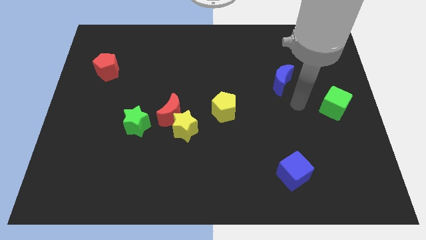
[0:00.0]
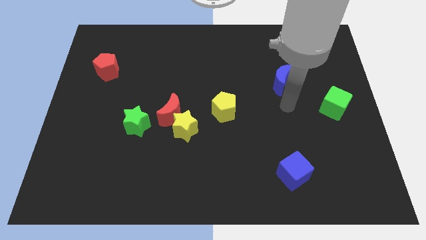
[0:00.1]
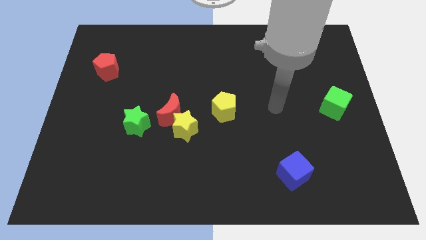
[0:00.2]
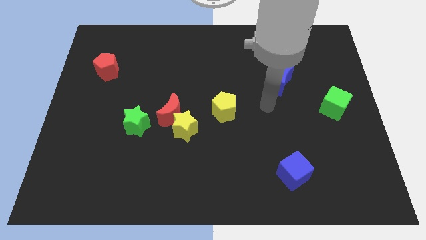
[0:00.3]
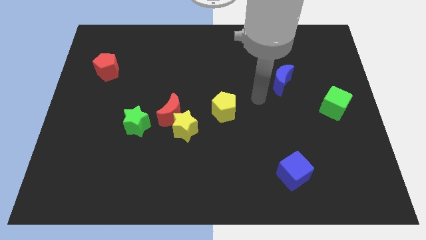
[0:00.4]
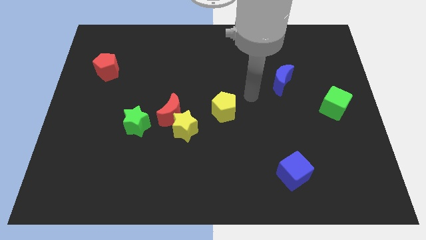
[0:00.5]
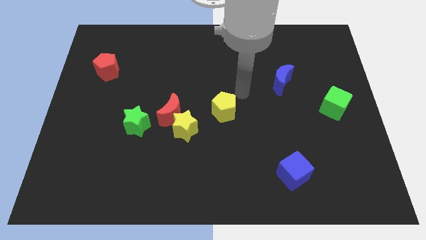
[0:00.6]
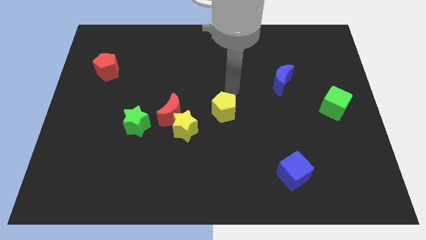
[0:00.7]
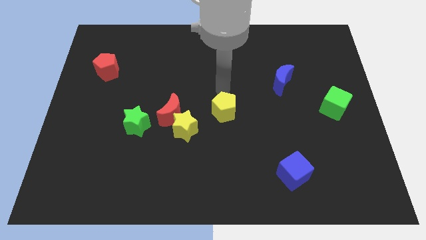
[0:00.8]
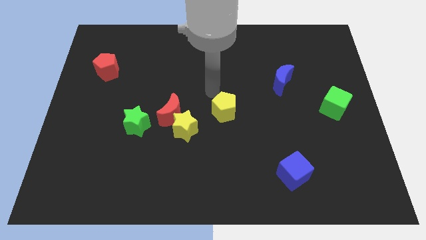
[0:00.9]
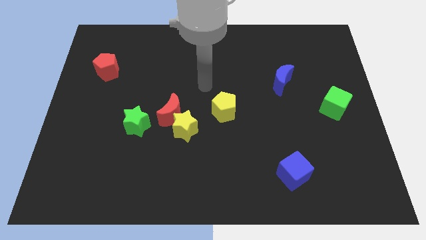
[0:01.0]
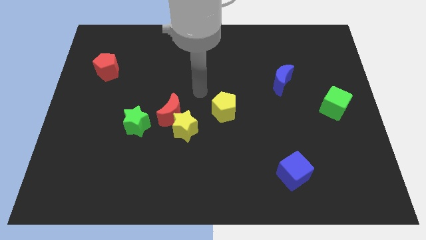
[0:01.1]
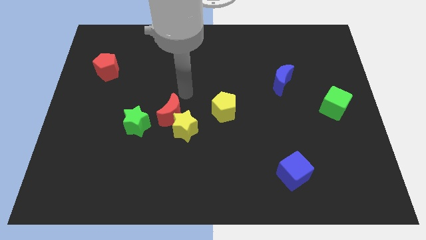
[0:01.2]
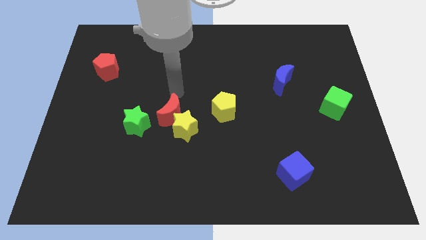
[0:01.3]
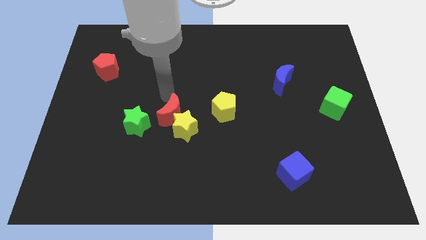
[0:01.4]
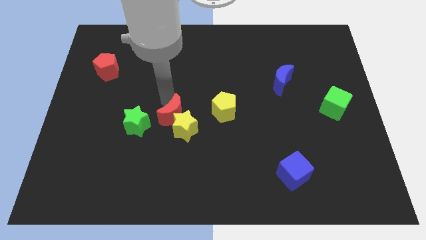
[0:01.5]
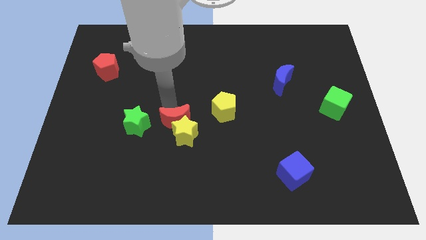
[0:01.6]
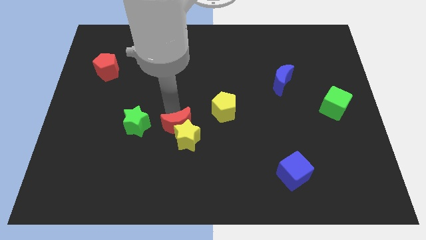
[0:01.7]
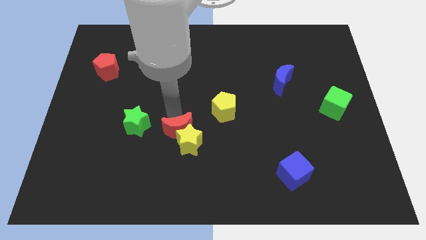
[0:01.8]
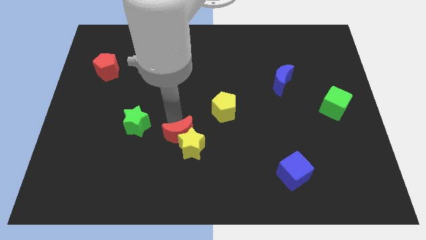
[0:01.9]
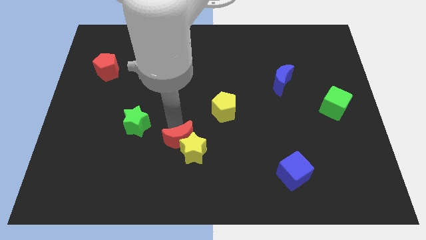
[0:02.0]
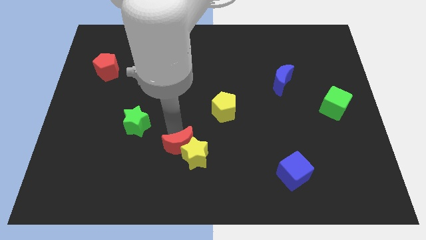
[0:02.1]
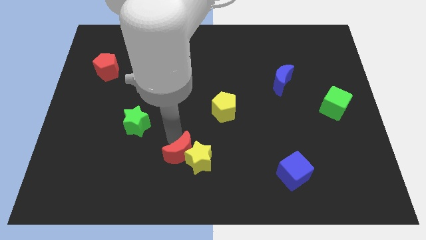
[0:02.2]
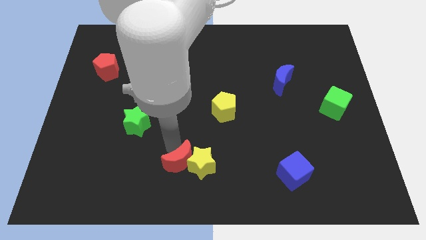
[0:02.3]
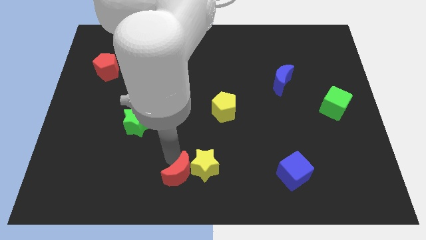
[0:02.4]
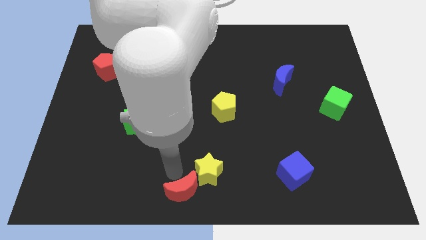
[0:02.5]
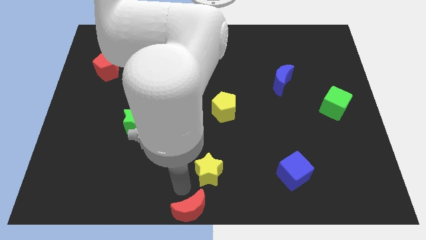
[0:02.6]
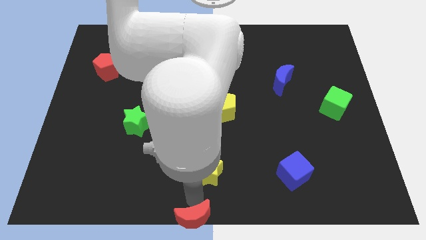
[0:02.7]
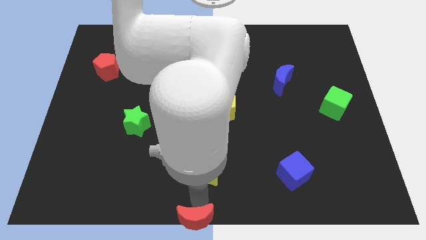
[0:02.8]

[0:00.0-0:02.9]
separate the yellow star from the red moon

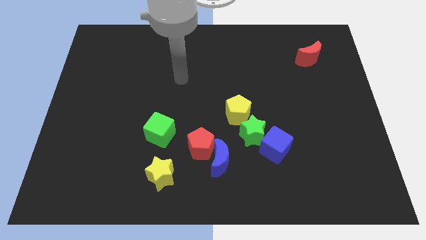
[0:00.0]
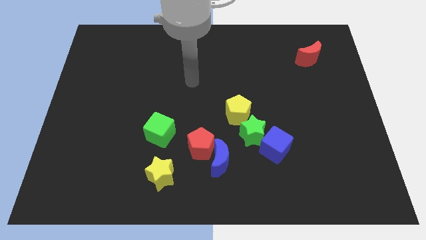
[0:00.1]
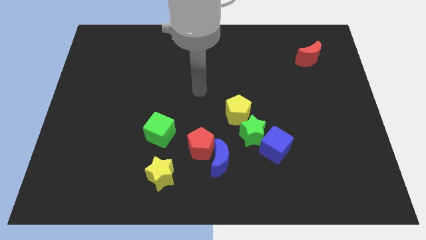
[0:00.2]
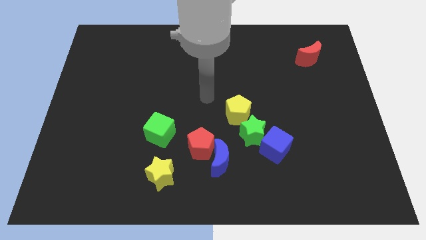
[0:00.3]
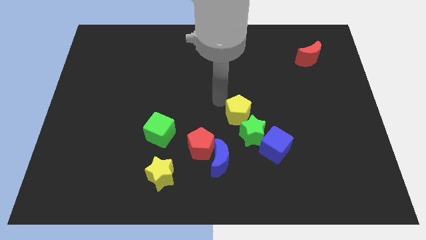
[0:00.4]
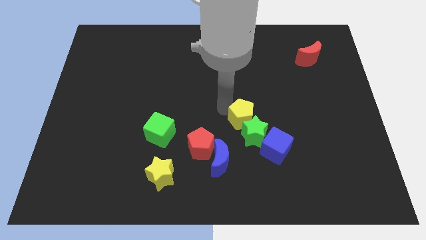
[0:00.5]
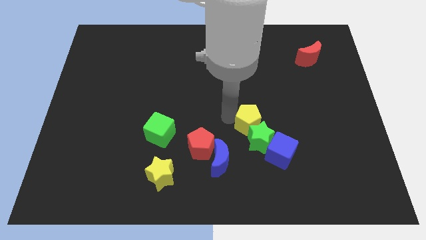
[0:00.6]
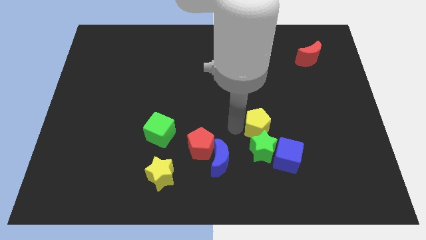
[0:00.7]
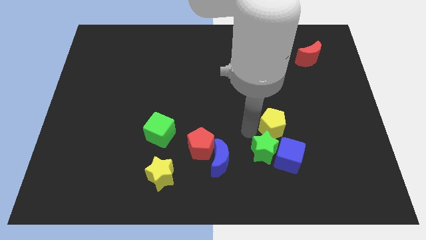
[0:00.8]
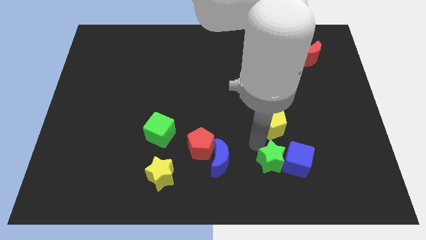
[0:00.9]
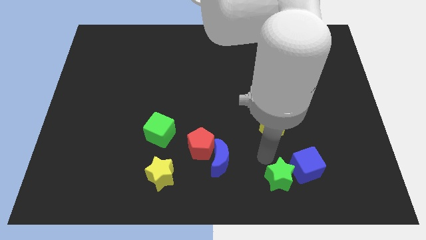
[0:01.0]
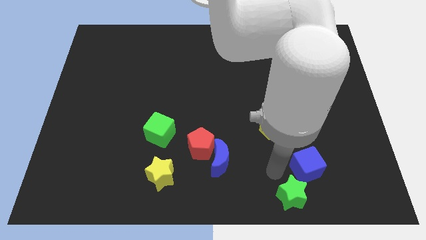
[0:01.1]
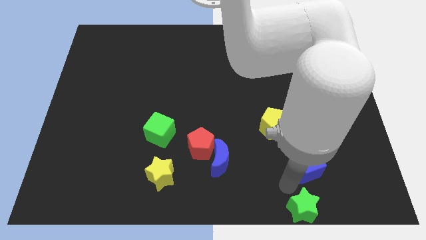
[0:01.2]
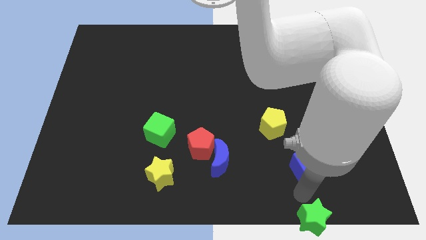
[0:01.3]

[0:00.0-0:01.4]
pull the blue cube apart from the green star

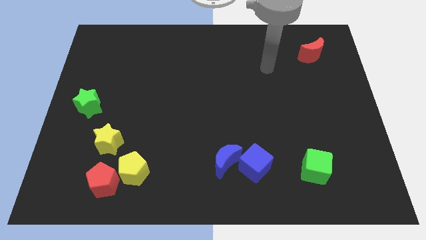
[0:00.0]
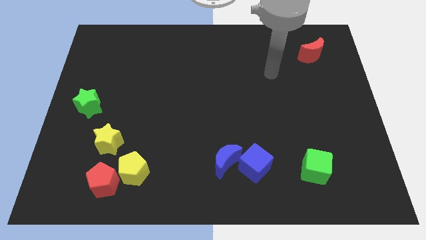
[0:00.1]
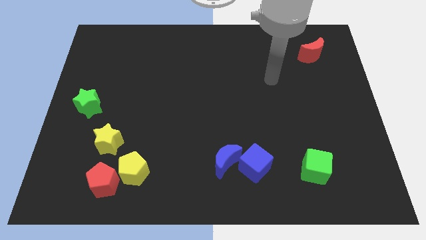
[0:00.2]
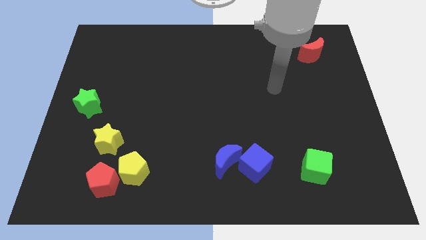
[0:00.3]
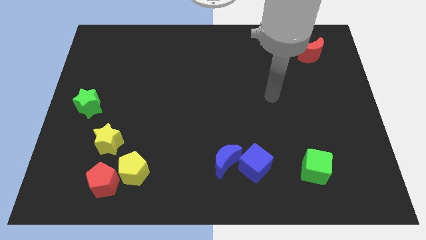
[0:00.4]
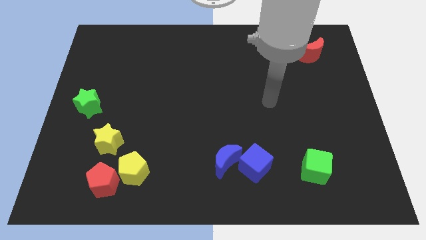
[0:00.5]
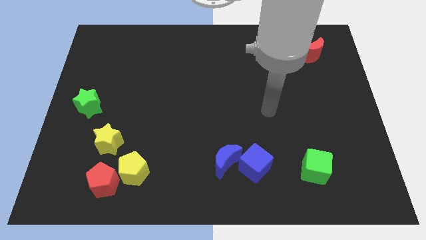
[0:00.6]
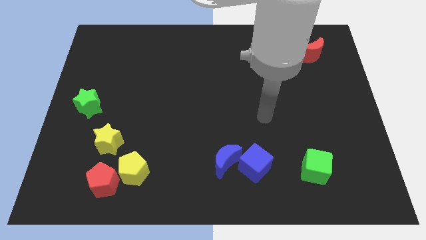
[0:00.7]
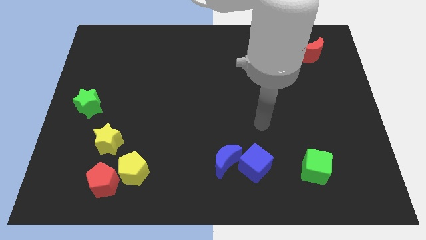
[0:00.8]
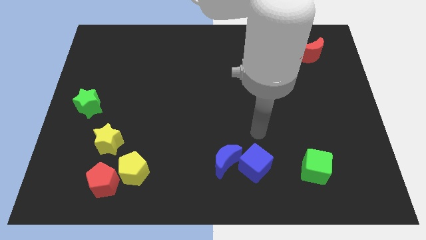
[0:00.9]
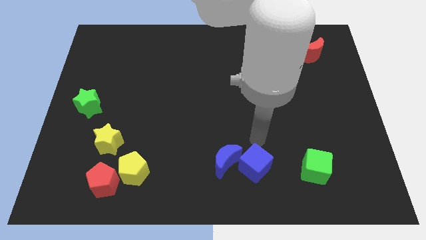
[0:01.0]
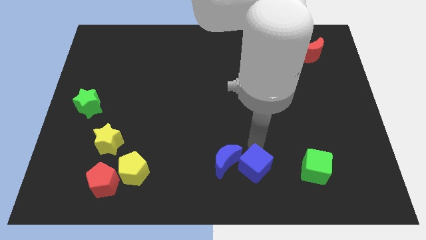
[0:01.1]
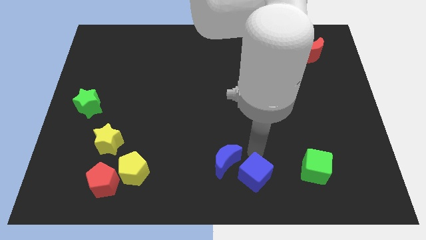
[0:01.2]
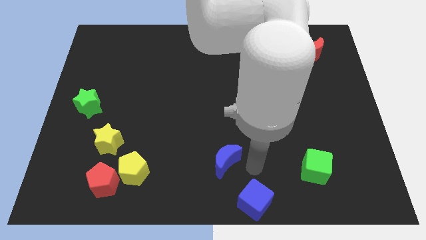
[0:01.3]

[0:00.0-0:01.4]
pull the blue moon apart from the blue cube

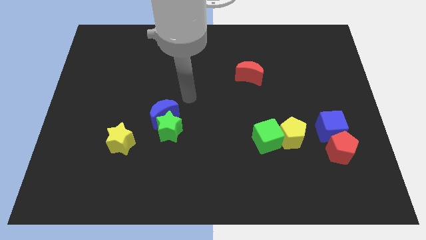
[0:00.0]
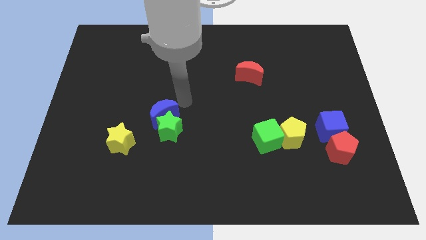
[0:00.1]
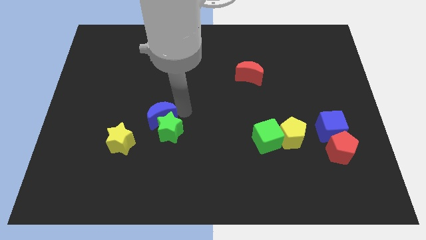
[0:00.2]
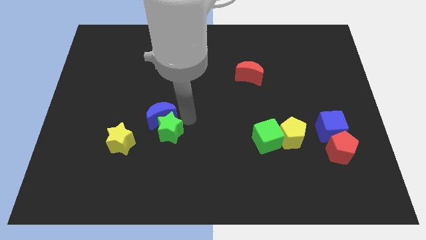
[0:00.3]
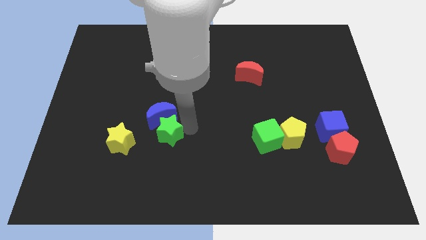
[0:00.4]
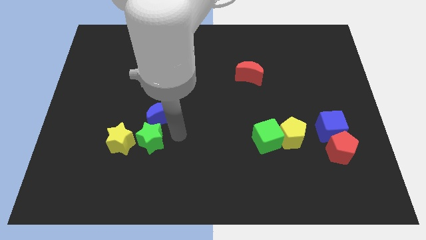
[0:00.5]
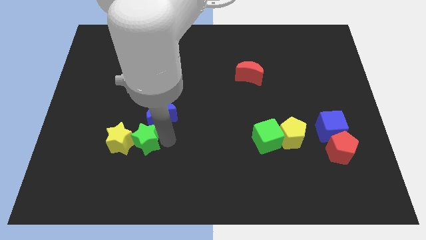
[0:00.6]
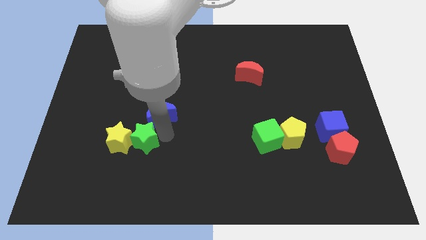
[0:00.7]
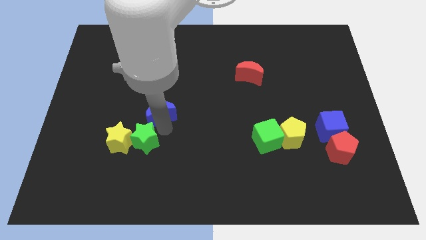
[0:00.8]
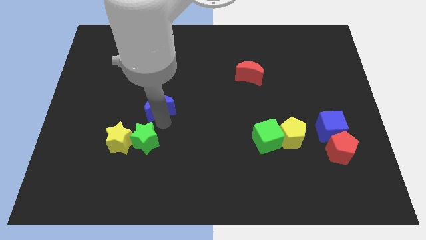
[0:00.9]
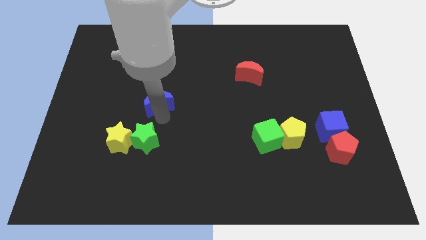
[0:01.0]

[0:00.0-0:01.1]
move the blue moon away from the green star

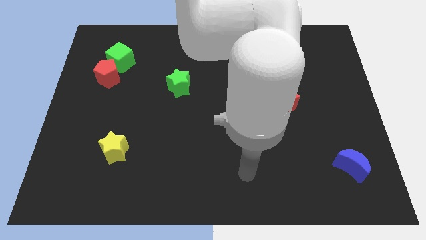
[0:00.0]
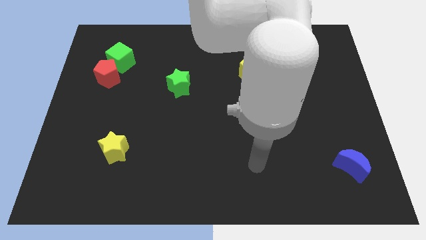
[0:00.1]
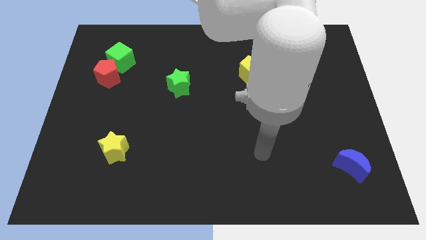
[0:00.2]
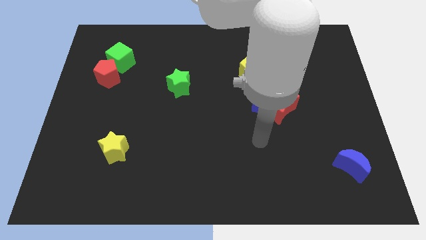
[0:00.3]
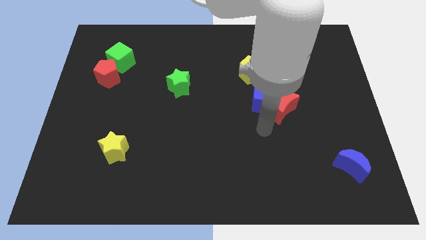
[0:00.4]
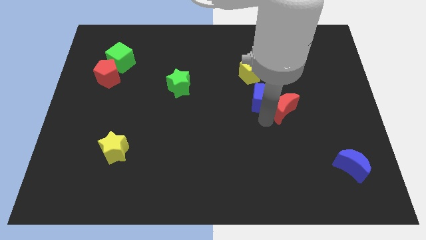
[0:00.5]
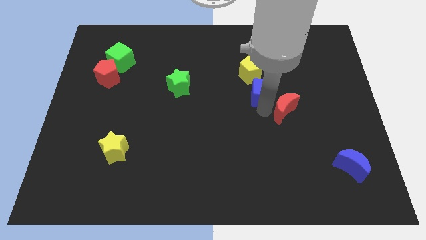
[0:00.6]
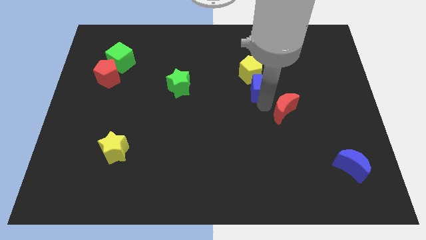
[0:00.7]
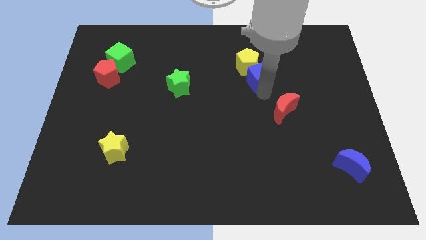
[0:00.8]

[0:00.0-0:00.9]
move the red moon away from the blue cube

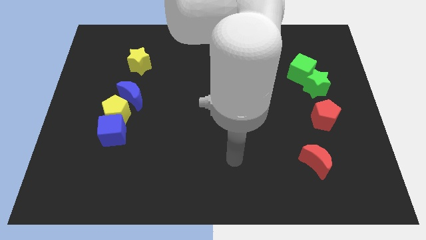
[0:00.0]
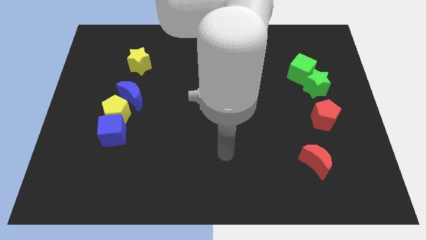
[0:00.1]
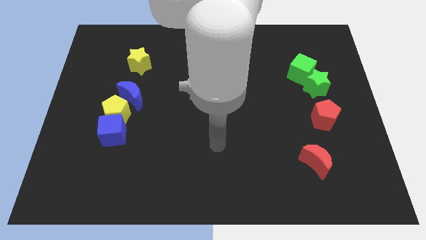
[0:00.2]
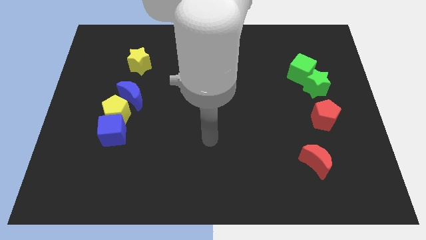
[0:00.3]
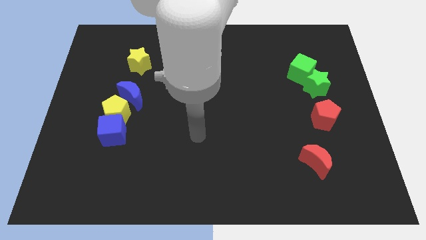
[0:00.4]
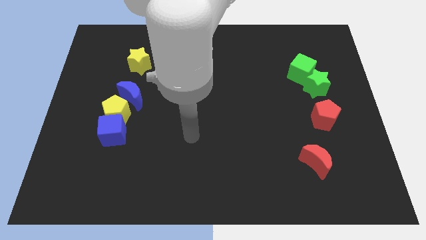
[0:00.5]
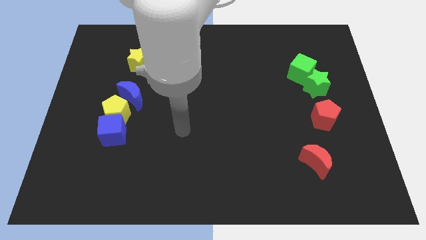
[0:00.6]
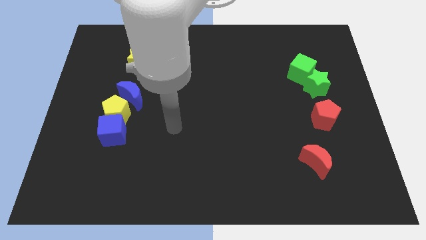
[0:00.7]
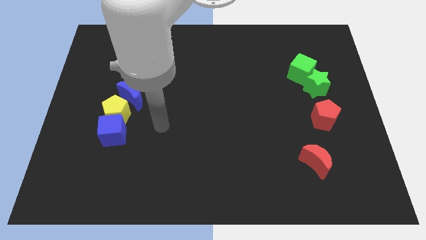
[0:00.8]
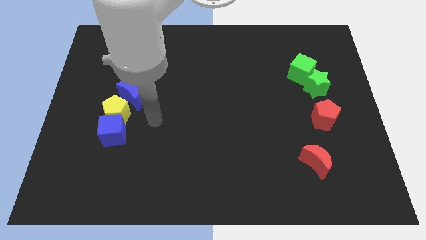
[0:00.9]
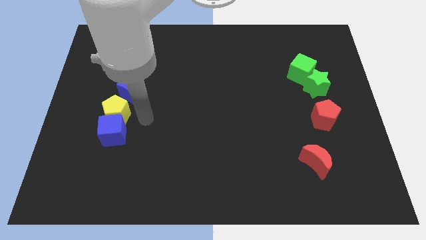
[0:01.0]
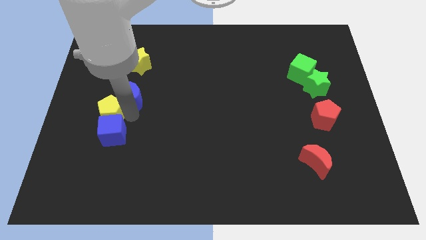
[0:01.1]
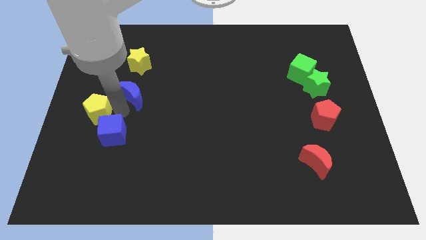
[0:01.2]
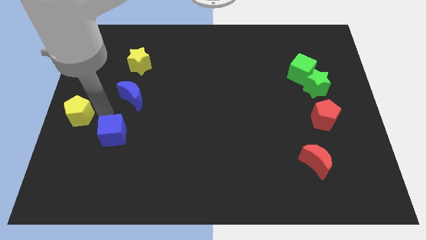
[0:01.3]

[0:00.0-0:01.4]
pull the blue cube apart from the yellow pentagon

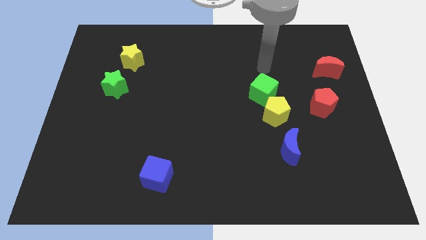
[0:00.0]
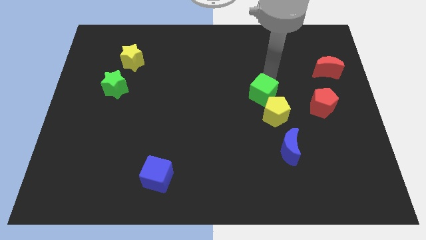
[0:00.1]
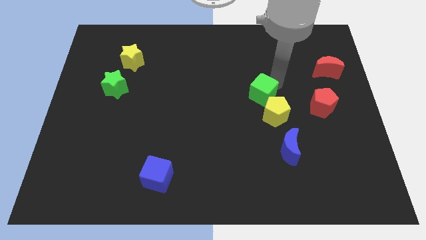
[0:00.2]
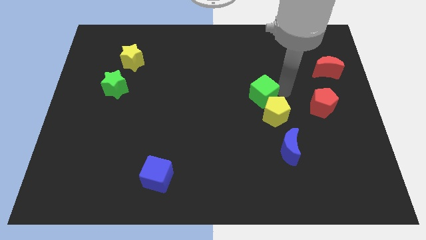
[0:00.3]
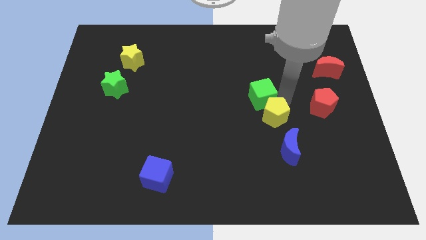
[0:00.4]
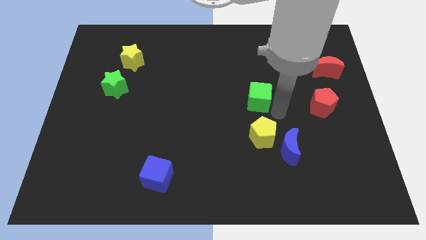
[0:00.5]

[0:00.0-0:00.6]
separate the green cube from the yellow pentagon
